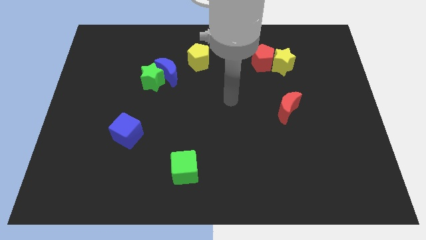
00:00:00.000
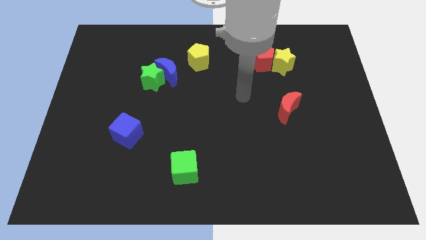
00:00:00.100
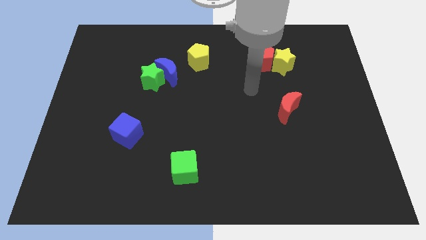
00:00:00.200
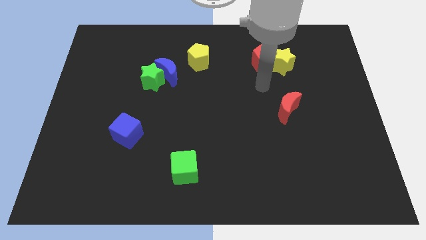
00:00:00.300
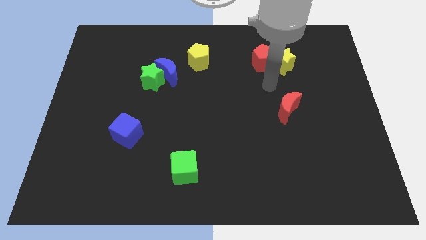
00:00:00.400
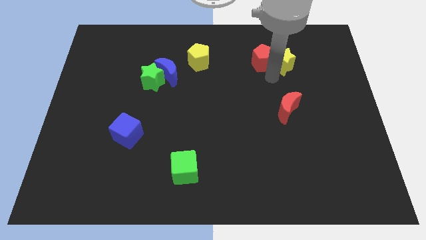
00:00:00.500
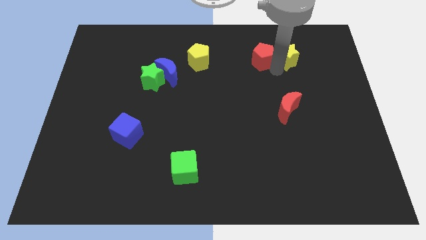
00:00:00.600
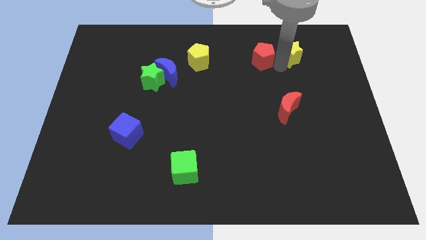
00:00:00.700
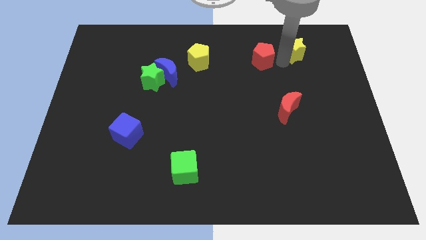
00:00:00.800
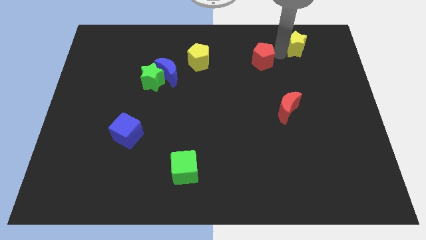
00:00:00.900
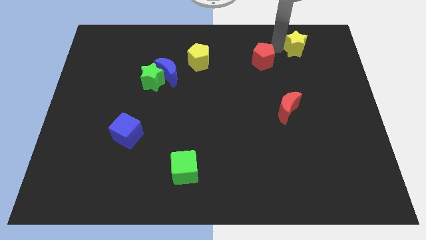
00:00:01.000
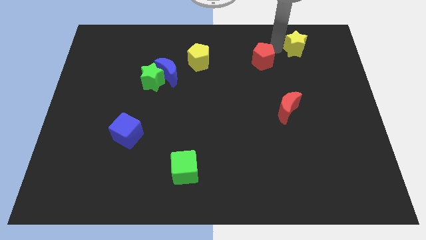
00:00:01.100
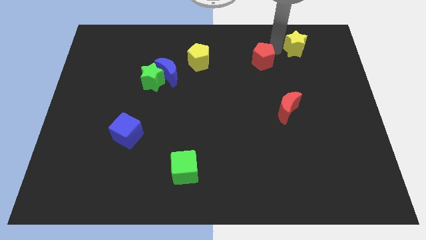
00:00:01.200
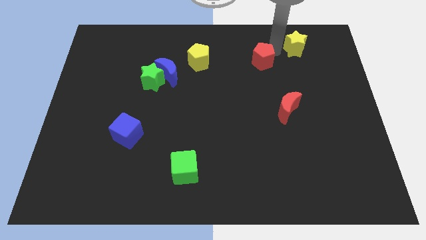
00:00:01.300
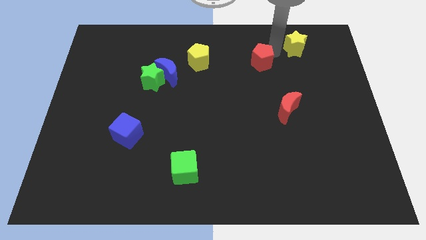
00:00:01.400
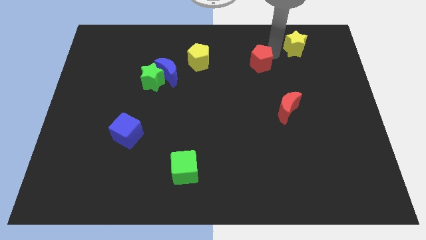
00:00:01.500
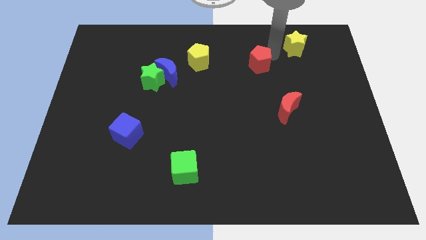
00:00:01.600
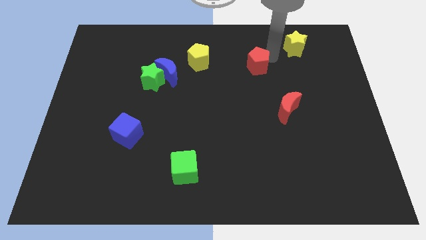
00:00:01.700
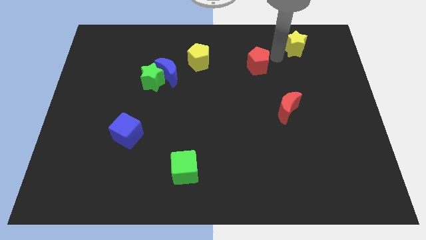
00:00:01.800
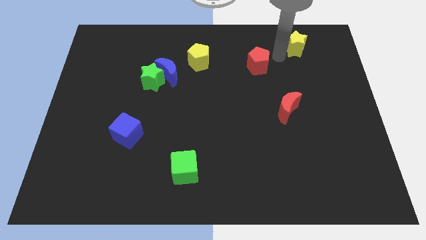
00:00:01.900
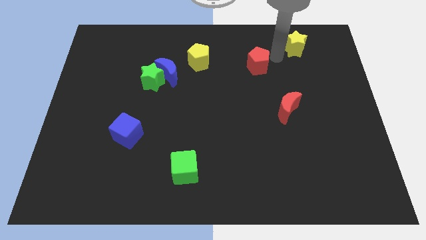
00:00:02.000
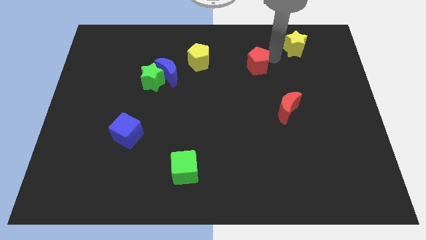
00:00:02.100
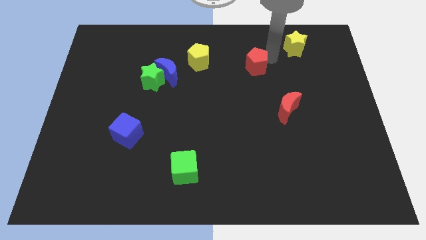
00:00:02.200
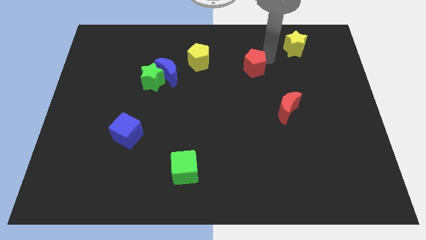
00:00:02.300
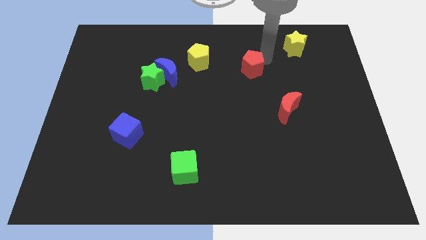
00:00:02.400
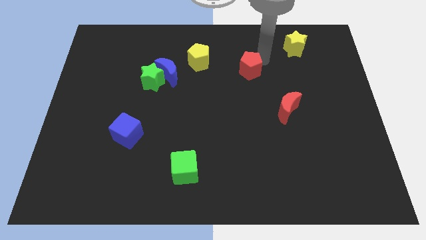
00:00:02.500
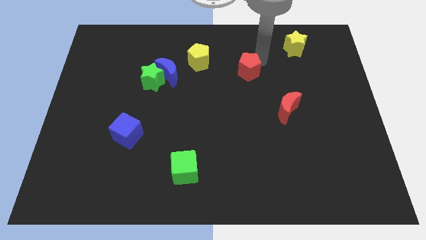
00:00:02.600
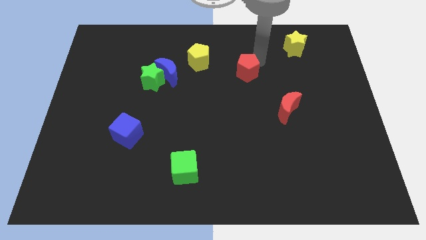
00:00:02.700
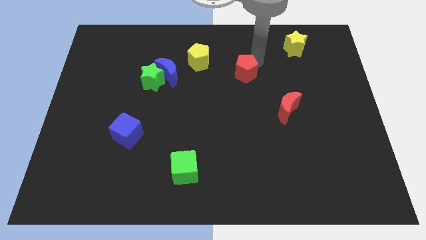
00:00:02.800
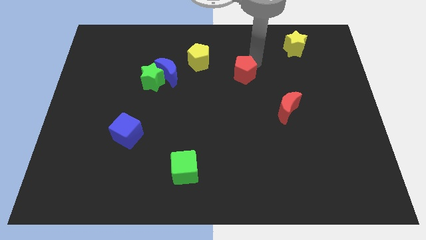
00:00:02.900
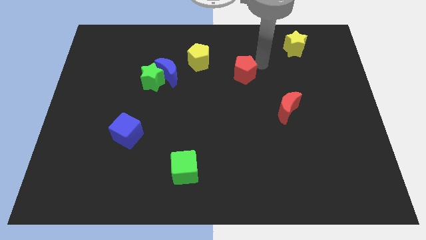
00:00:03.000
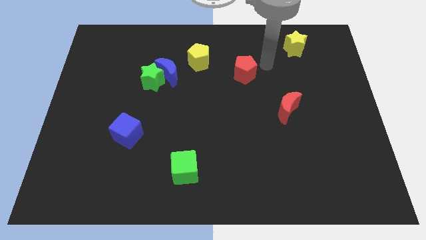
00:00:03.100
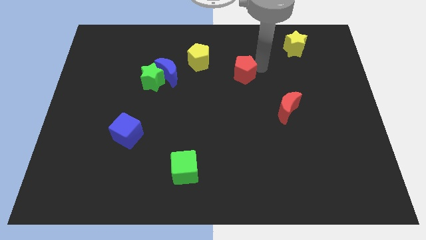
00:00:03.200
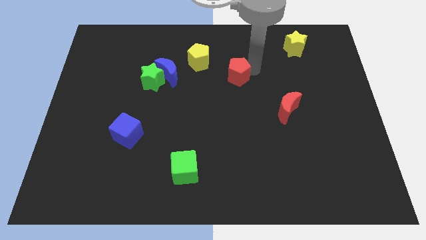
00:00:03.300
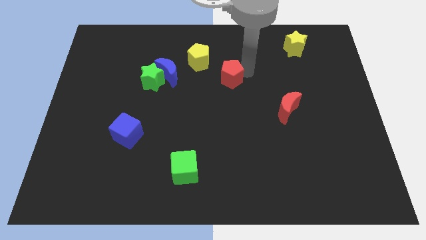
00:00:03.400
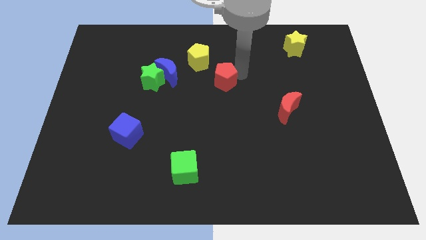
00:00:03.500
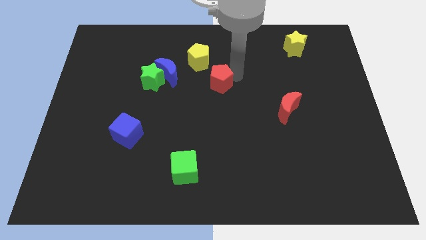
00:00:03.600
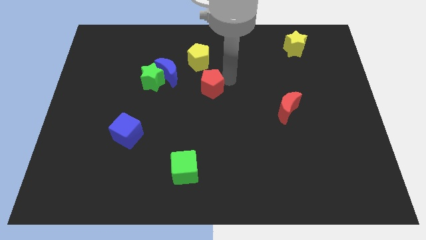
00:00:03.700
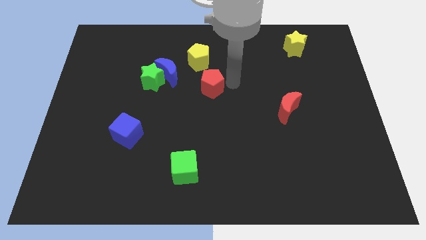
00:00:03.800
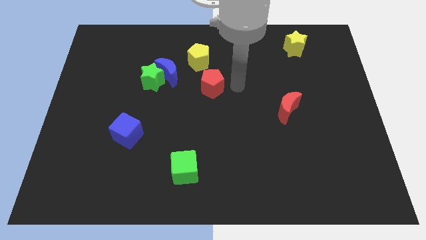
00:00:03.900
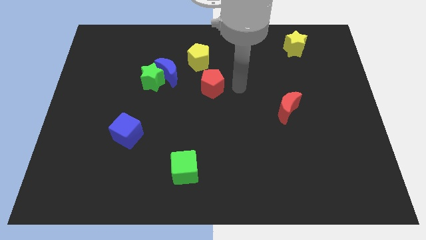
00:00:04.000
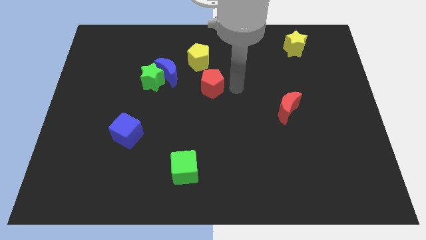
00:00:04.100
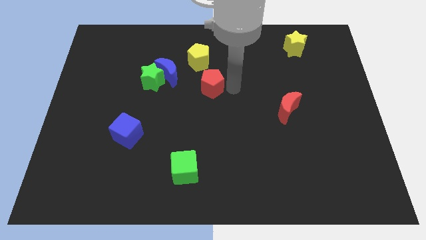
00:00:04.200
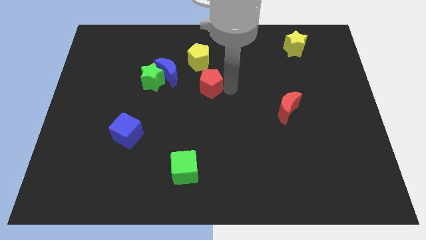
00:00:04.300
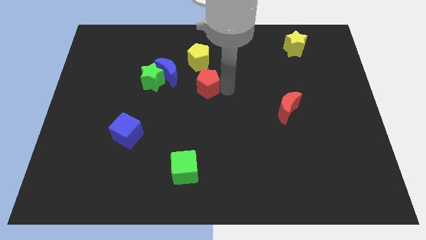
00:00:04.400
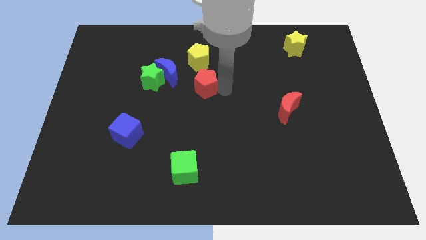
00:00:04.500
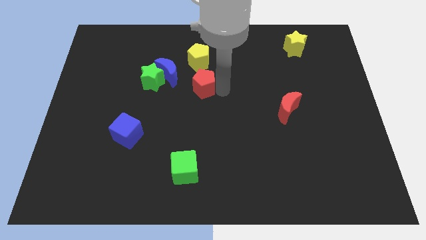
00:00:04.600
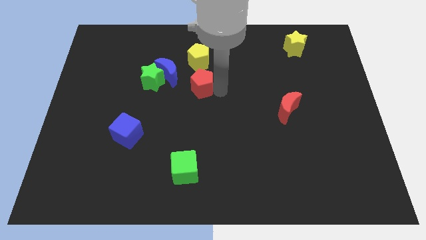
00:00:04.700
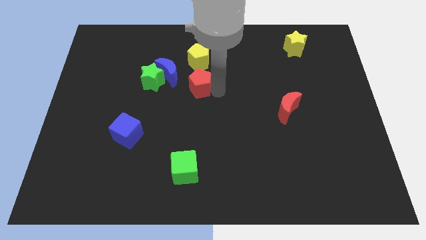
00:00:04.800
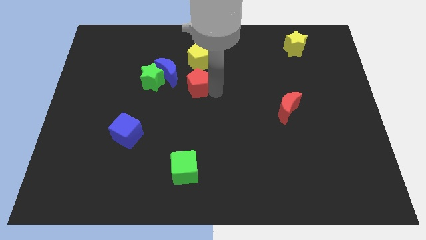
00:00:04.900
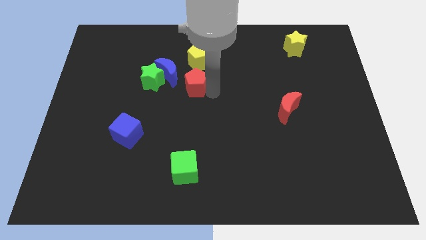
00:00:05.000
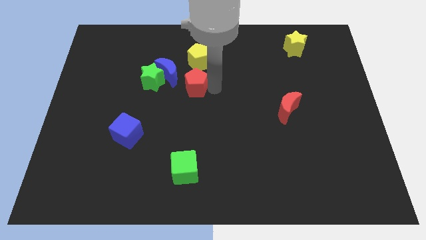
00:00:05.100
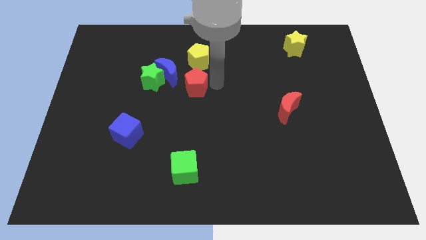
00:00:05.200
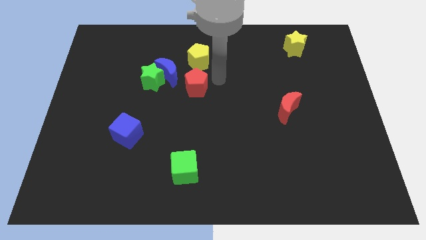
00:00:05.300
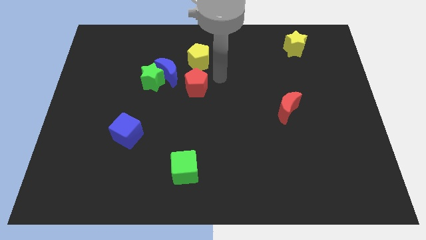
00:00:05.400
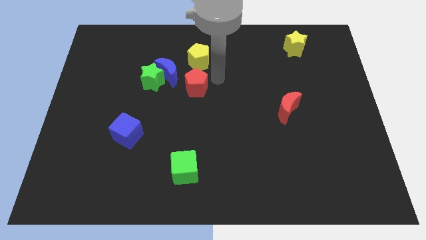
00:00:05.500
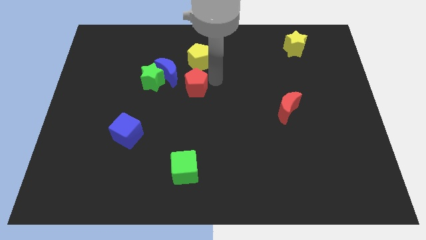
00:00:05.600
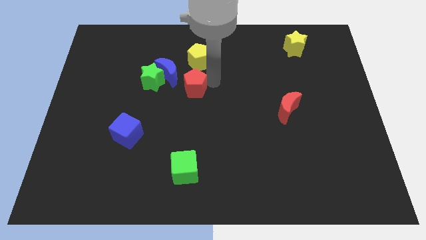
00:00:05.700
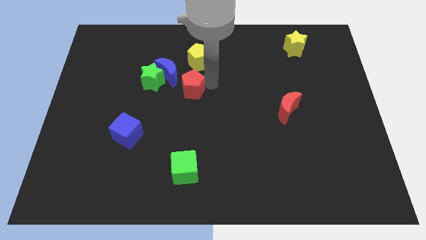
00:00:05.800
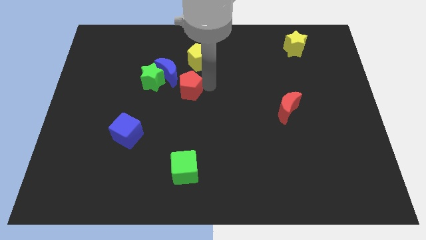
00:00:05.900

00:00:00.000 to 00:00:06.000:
push the red pentagon diagonally down and to the right of the green star

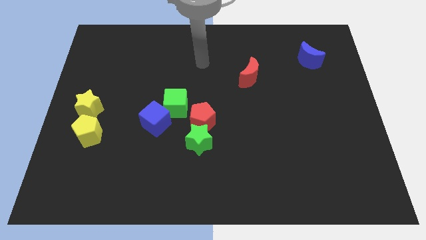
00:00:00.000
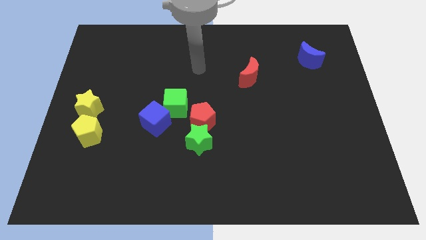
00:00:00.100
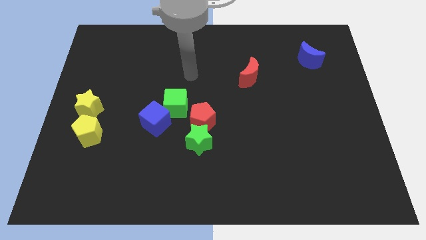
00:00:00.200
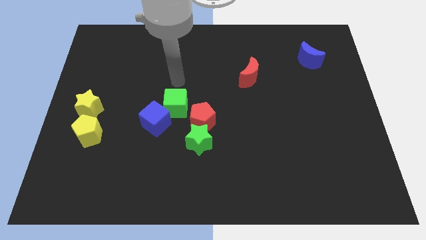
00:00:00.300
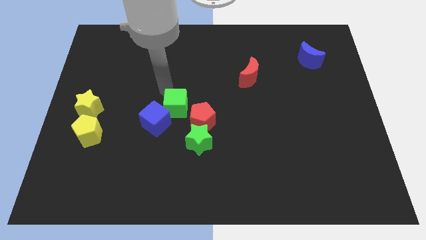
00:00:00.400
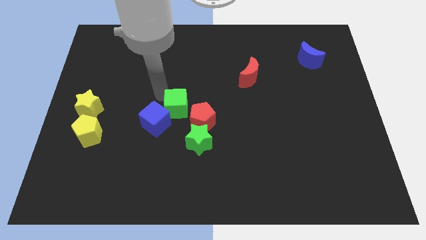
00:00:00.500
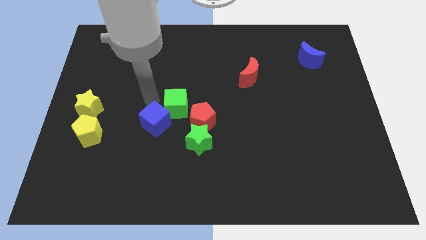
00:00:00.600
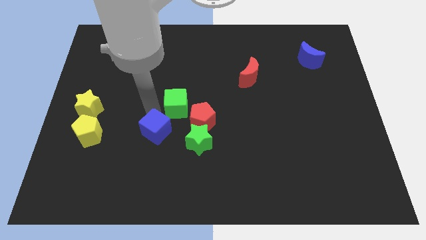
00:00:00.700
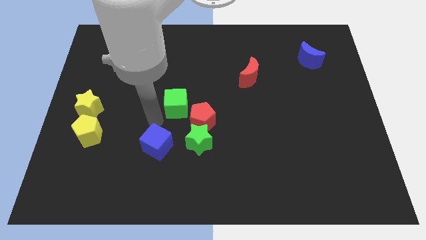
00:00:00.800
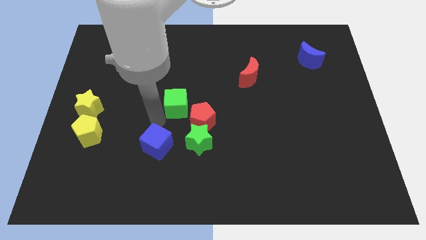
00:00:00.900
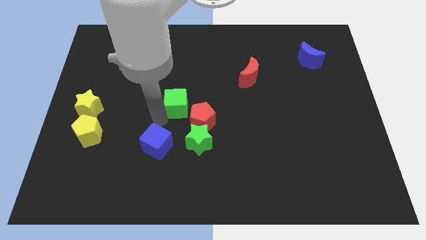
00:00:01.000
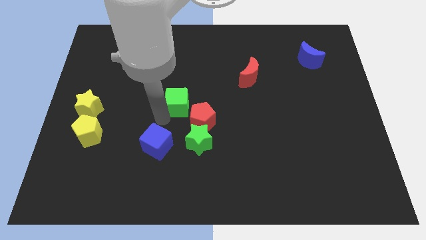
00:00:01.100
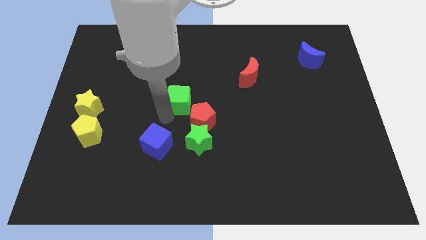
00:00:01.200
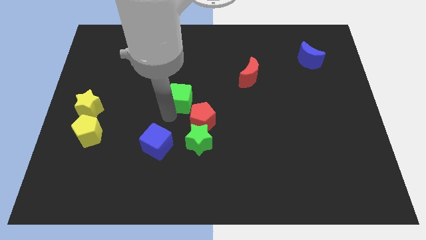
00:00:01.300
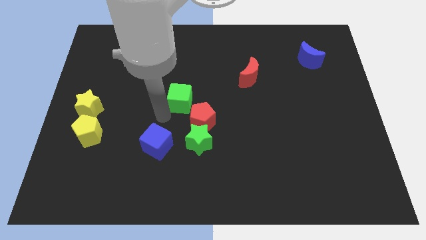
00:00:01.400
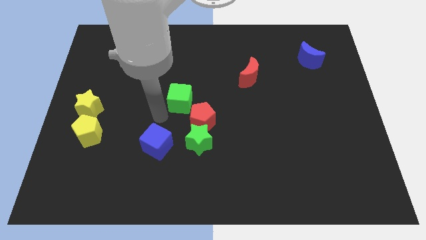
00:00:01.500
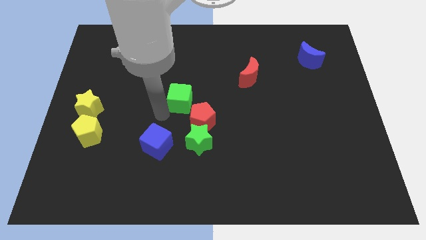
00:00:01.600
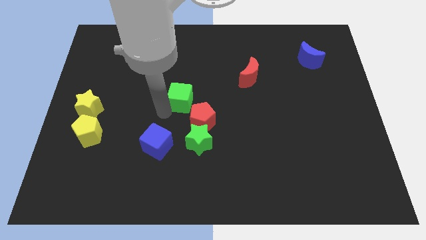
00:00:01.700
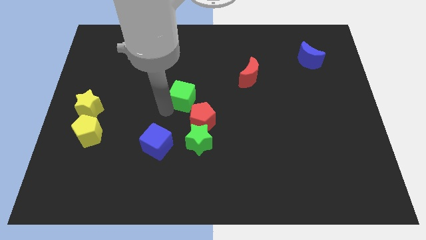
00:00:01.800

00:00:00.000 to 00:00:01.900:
slide the green cube to the top of the red pentagon
